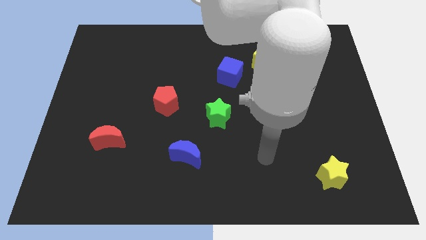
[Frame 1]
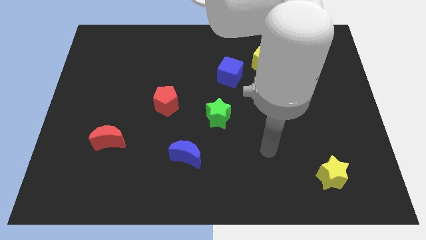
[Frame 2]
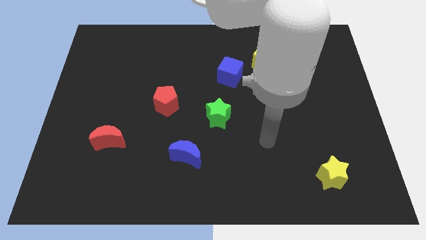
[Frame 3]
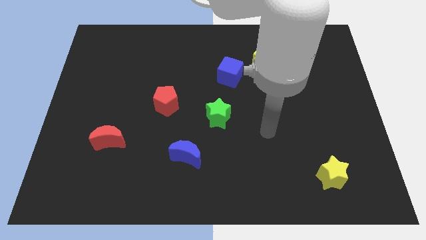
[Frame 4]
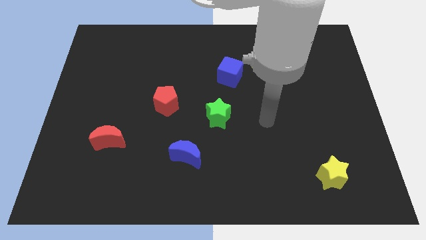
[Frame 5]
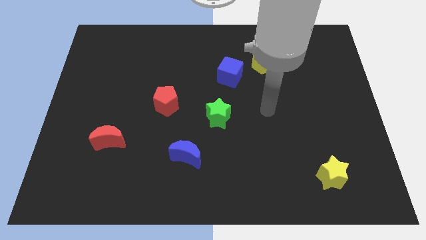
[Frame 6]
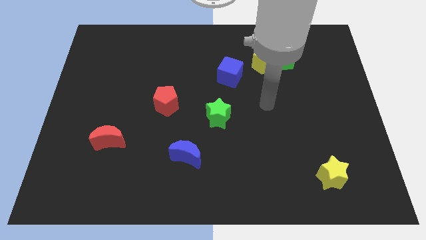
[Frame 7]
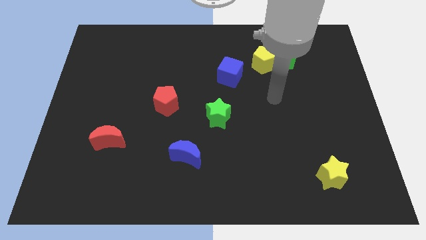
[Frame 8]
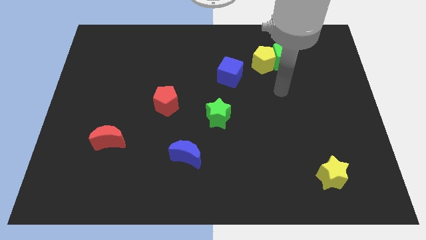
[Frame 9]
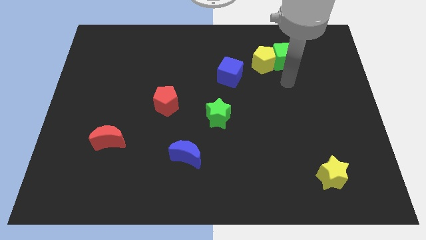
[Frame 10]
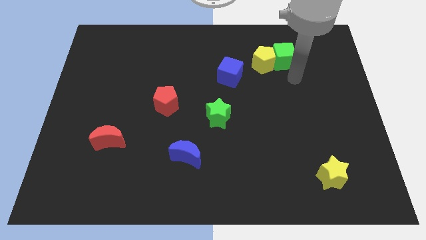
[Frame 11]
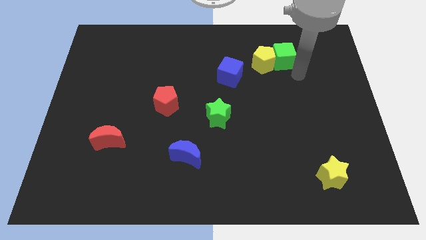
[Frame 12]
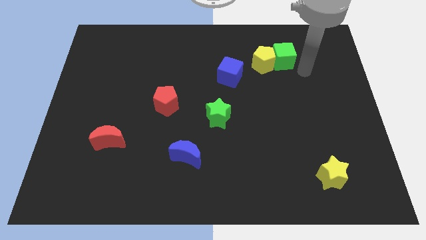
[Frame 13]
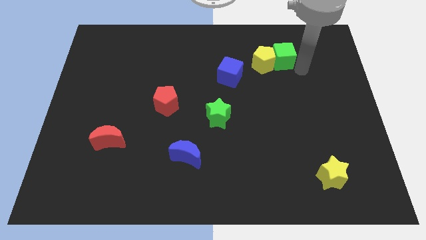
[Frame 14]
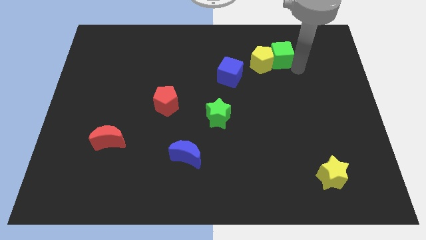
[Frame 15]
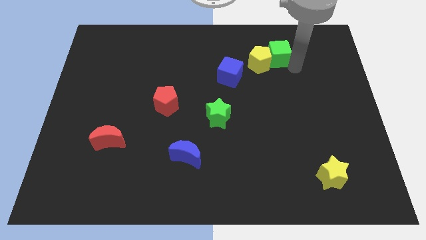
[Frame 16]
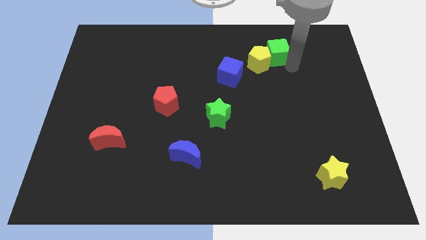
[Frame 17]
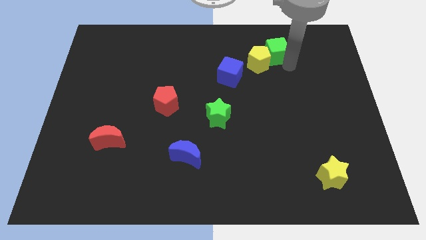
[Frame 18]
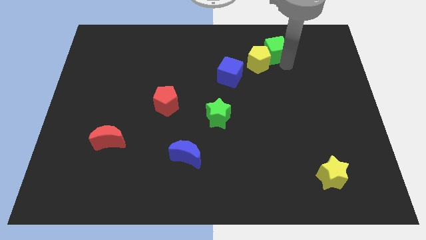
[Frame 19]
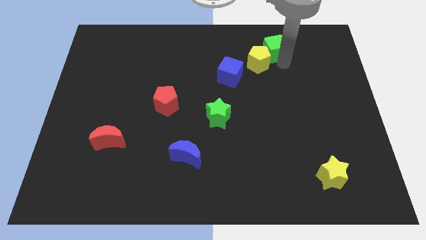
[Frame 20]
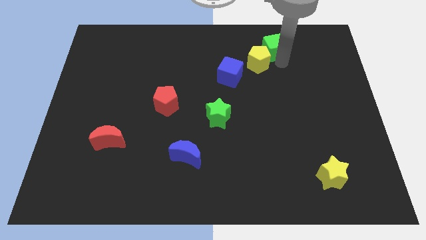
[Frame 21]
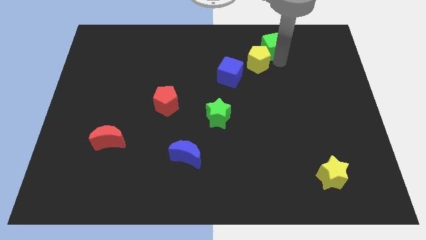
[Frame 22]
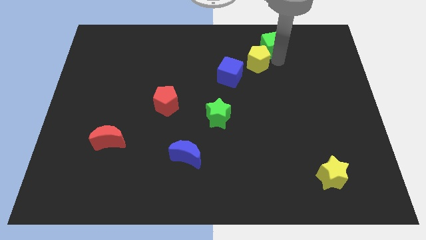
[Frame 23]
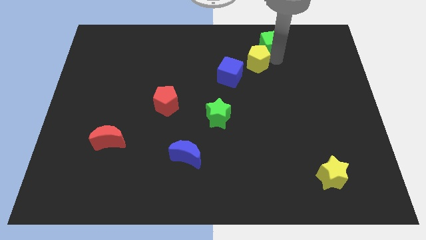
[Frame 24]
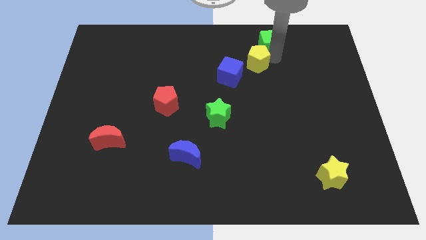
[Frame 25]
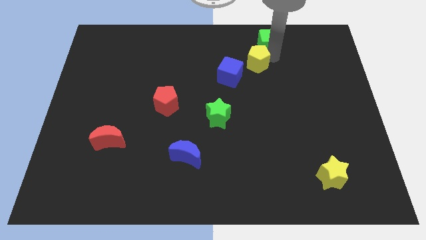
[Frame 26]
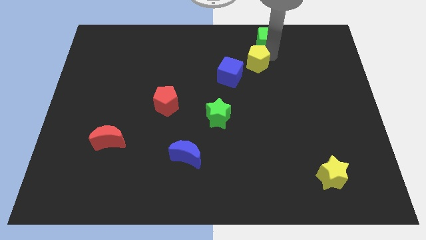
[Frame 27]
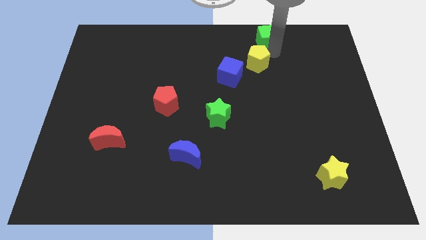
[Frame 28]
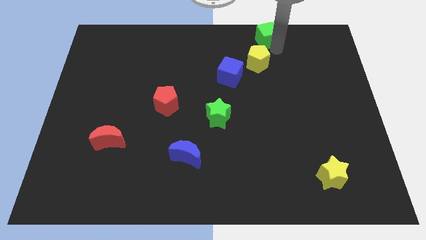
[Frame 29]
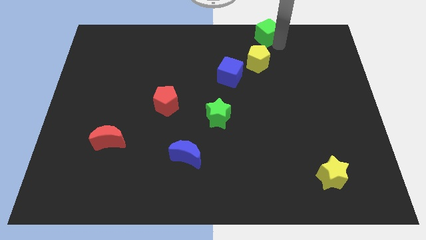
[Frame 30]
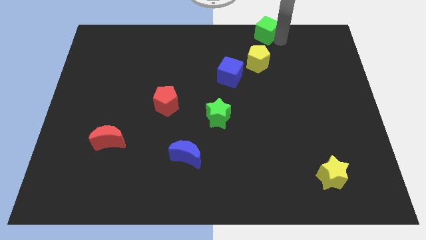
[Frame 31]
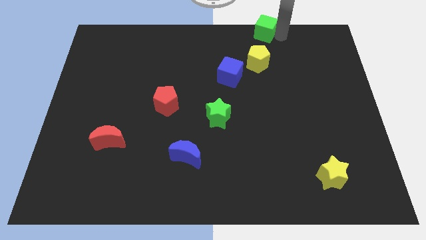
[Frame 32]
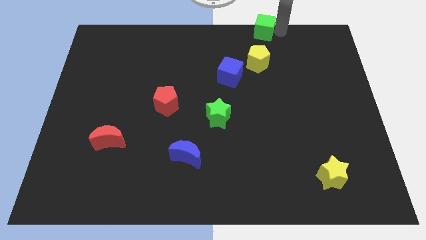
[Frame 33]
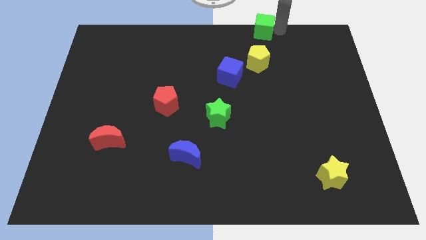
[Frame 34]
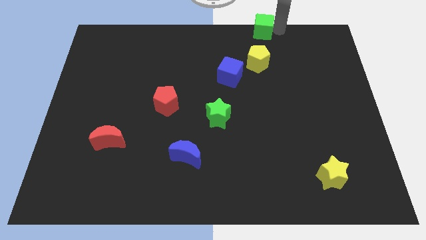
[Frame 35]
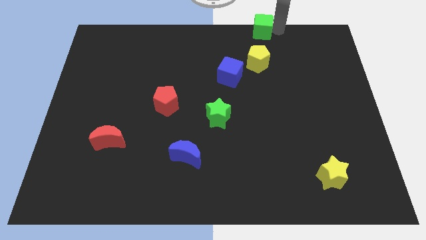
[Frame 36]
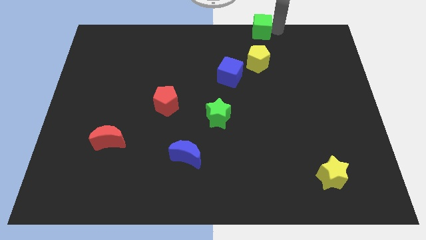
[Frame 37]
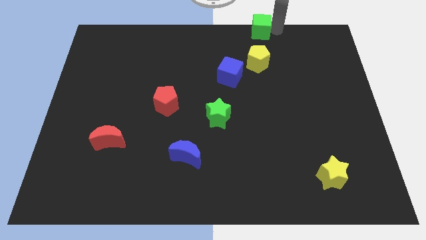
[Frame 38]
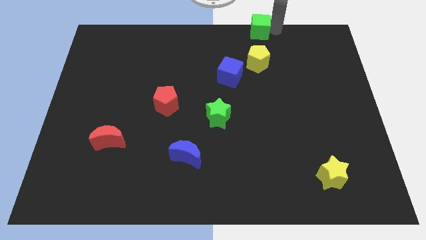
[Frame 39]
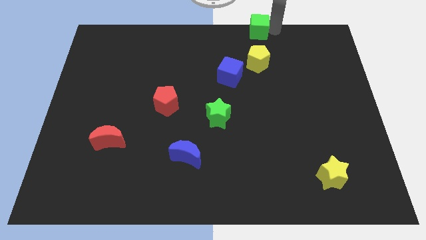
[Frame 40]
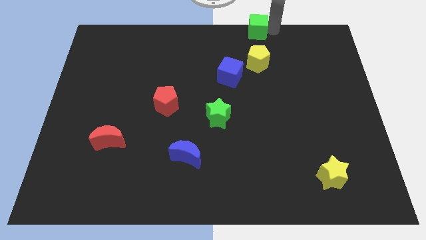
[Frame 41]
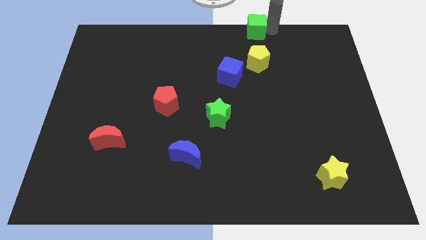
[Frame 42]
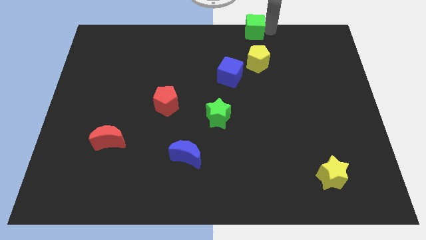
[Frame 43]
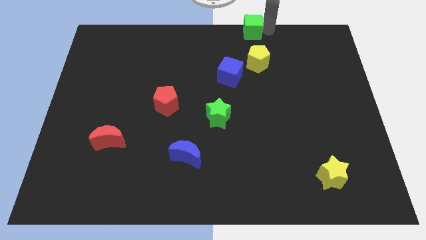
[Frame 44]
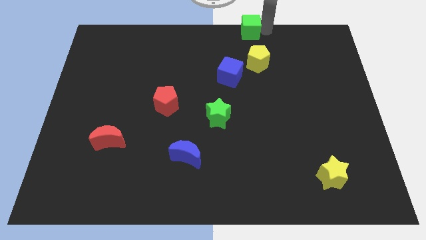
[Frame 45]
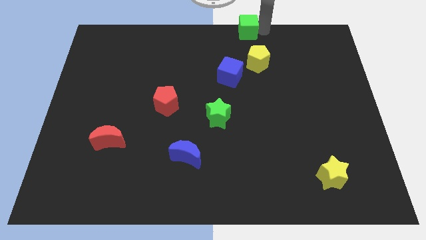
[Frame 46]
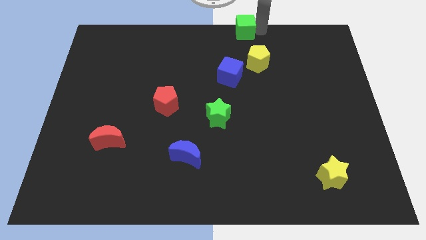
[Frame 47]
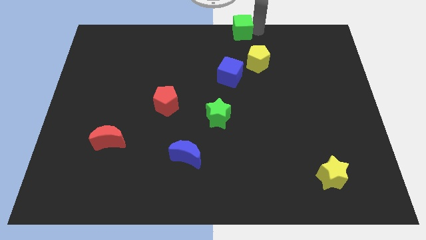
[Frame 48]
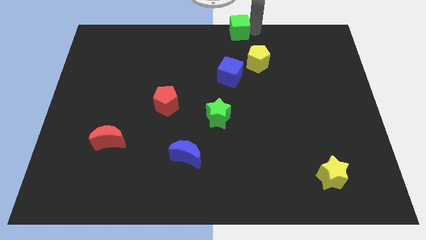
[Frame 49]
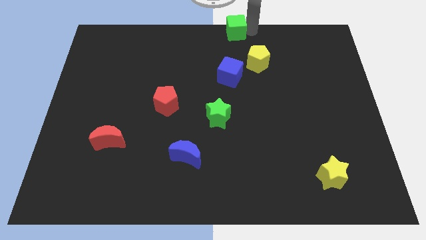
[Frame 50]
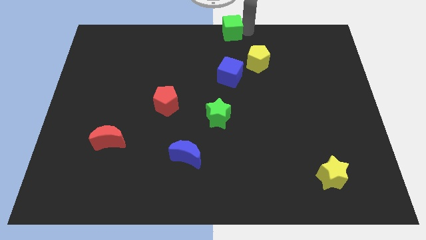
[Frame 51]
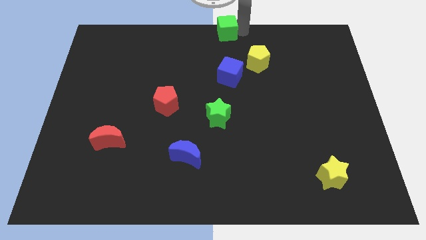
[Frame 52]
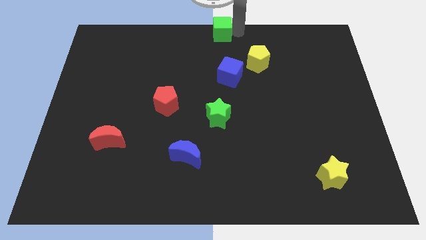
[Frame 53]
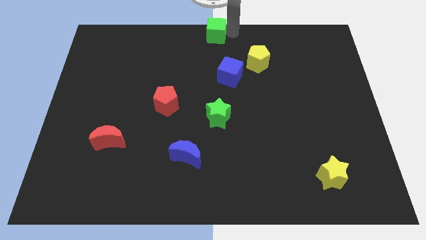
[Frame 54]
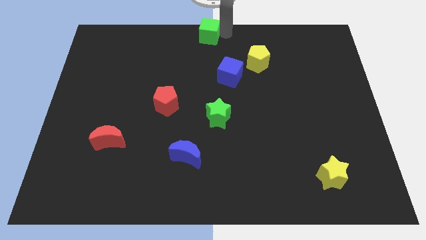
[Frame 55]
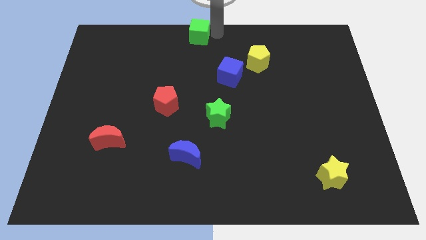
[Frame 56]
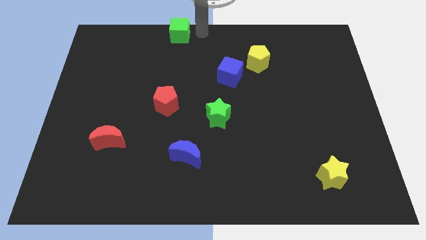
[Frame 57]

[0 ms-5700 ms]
move the green cube to the left

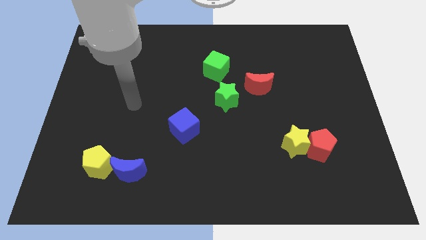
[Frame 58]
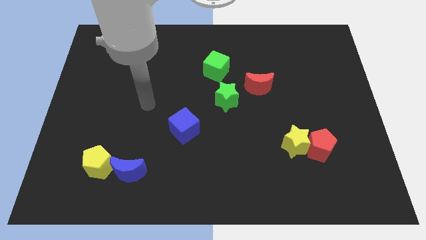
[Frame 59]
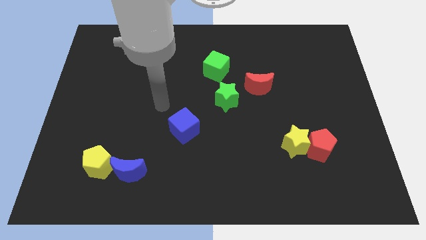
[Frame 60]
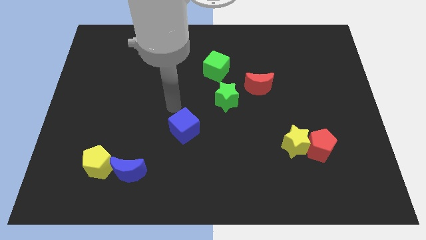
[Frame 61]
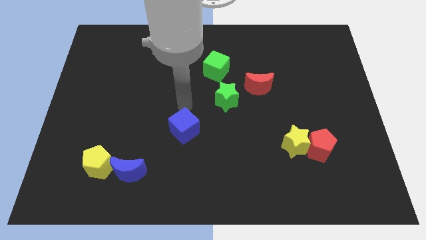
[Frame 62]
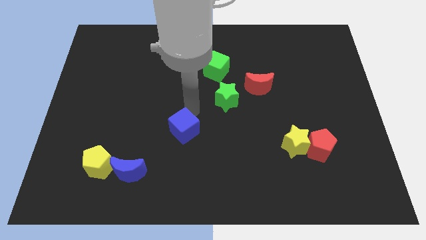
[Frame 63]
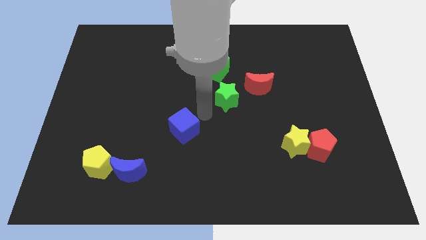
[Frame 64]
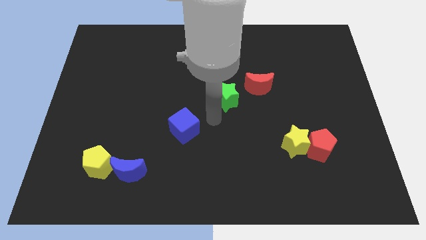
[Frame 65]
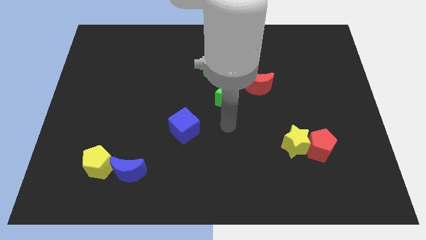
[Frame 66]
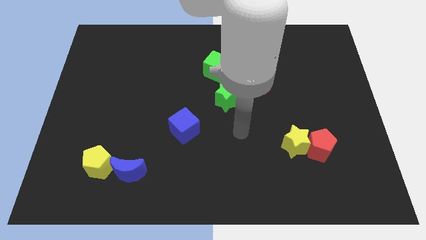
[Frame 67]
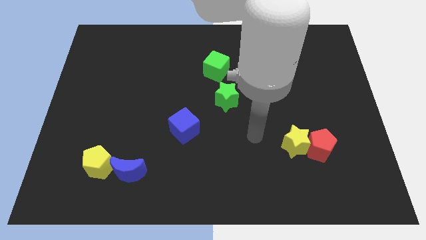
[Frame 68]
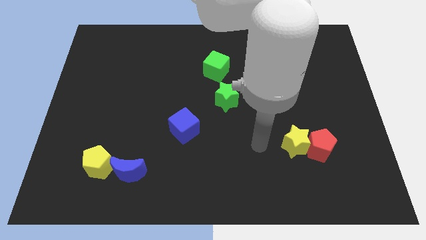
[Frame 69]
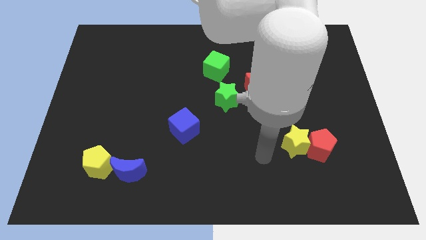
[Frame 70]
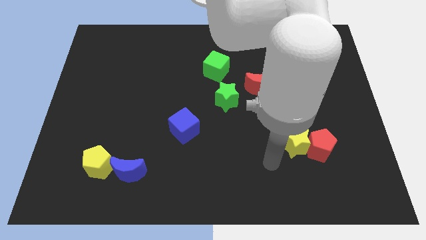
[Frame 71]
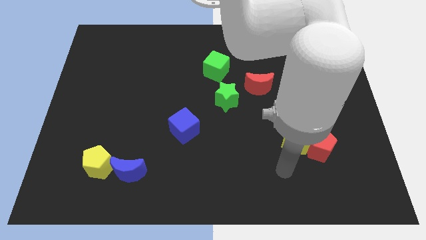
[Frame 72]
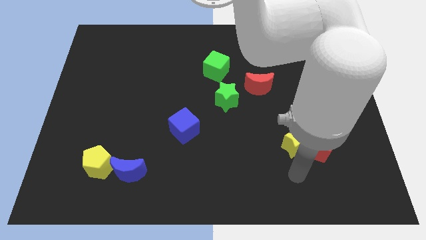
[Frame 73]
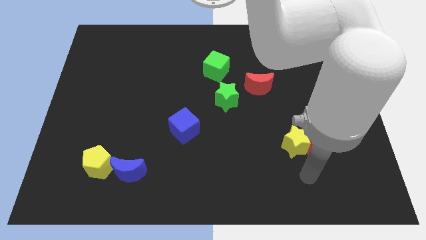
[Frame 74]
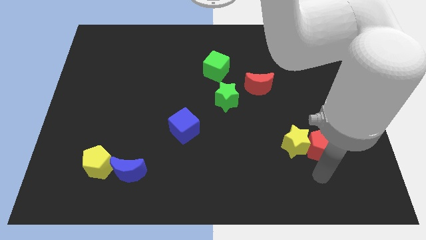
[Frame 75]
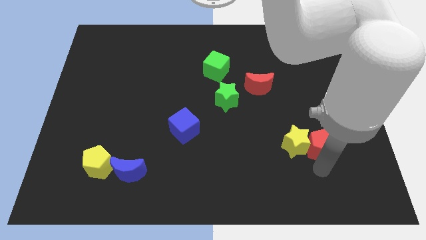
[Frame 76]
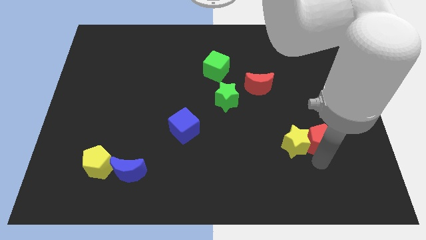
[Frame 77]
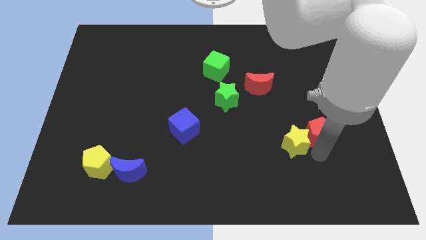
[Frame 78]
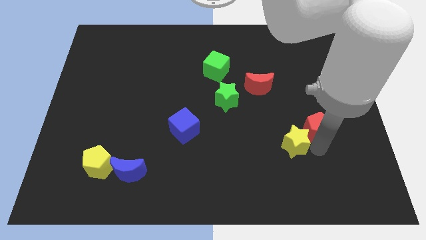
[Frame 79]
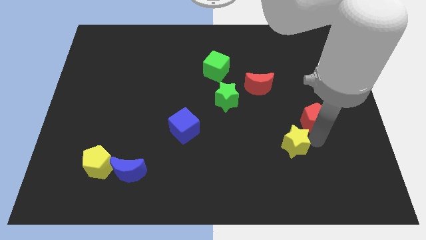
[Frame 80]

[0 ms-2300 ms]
slide the red pentagon a little bit up
